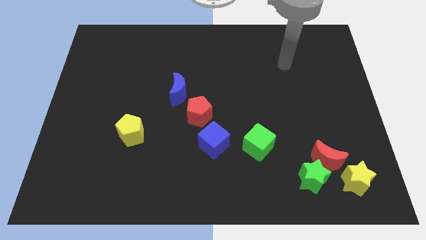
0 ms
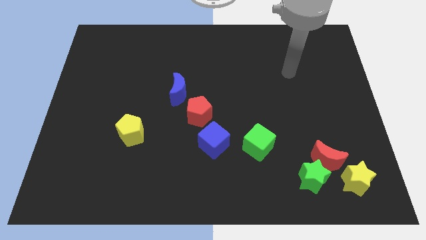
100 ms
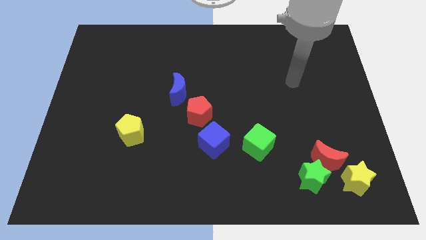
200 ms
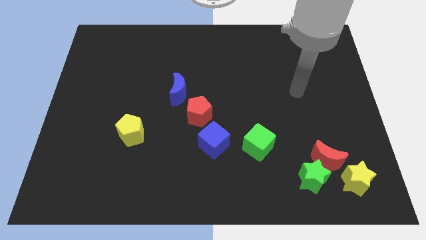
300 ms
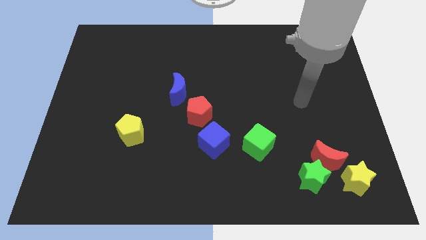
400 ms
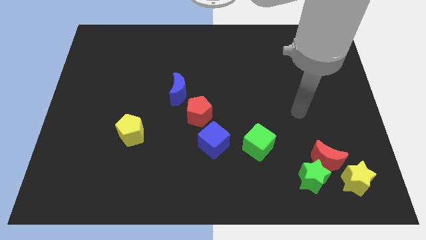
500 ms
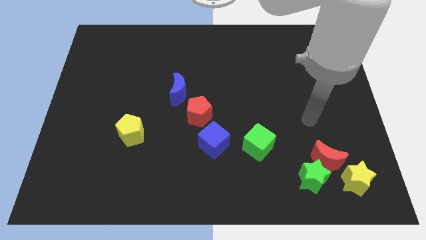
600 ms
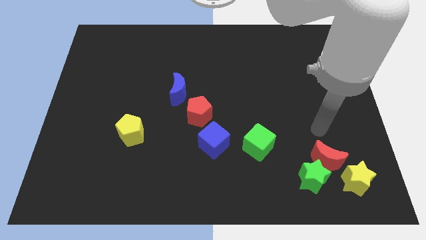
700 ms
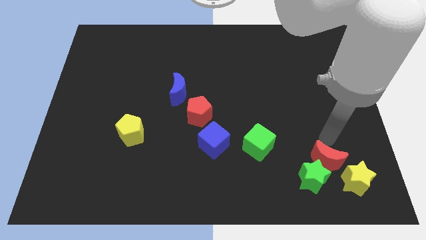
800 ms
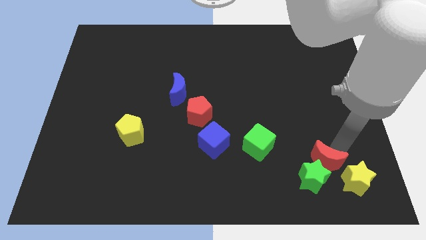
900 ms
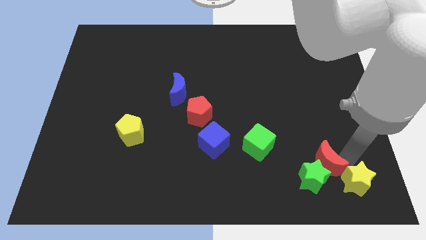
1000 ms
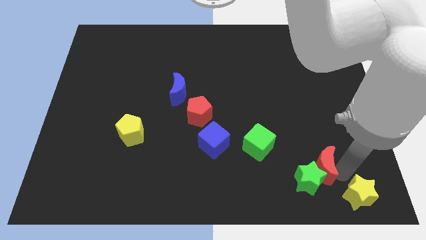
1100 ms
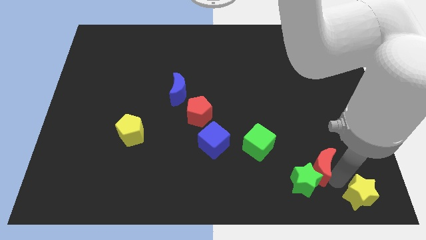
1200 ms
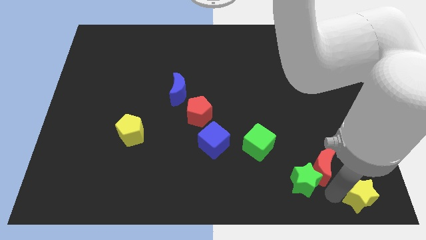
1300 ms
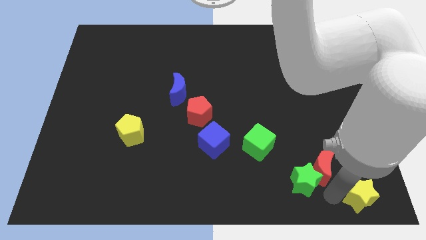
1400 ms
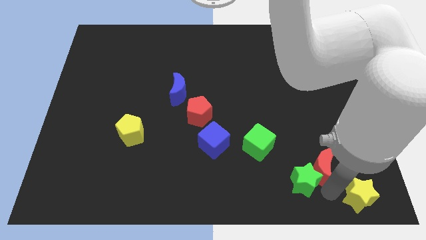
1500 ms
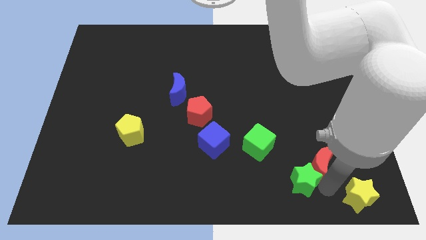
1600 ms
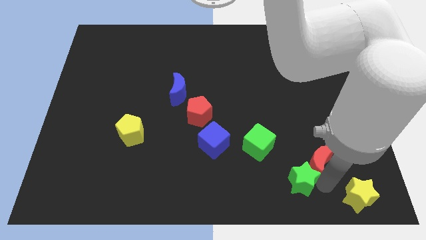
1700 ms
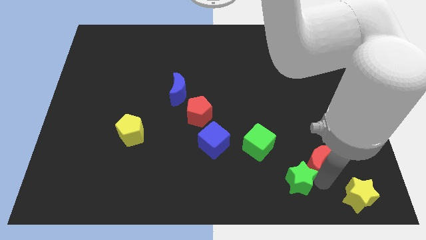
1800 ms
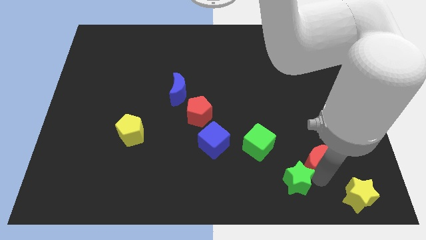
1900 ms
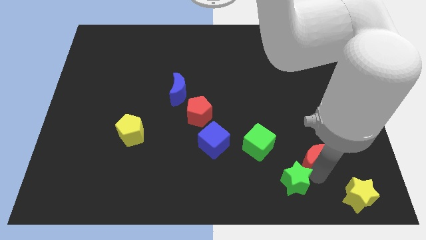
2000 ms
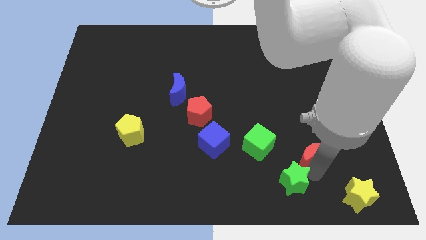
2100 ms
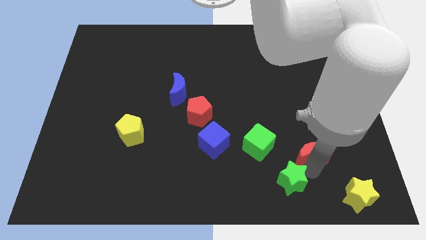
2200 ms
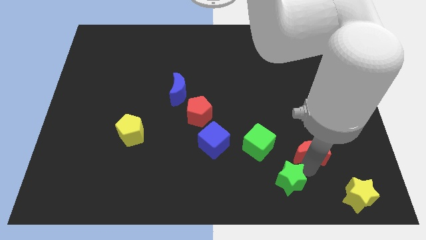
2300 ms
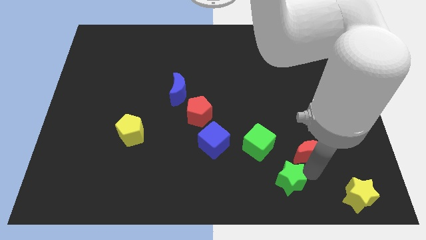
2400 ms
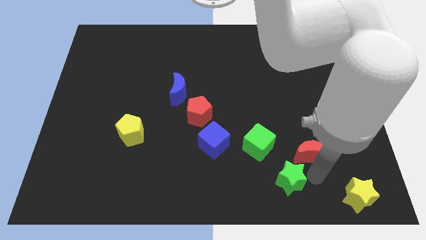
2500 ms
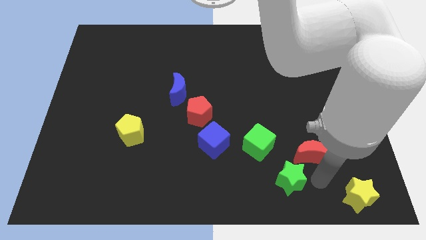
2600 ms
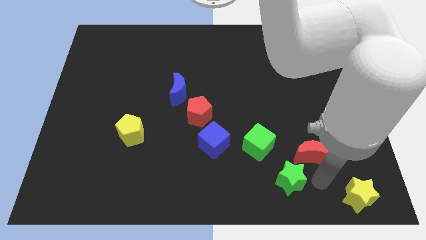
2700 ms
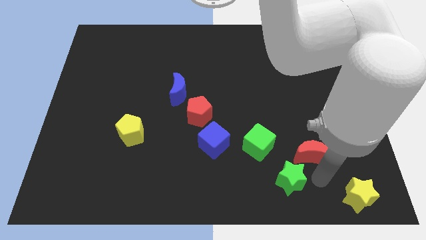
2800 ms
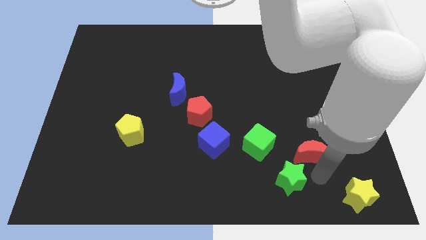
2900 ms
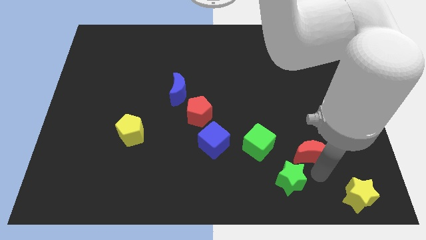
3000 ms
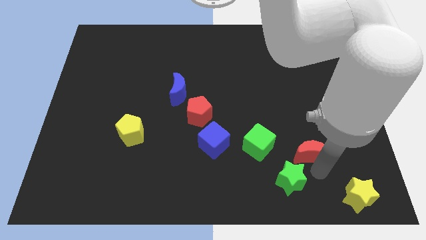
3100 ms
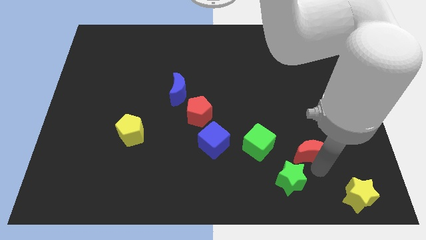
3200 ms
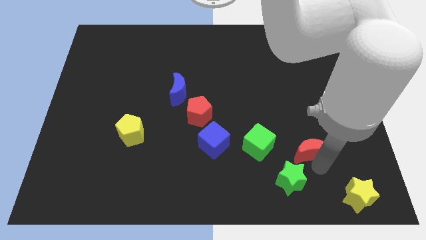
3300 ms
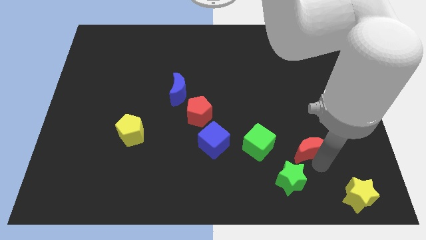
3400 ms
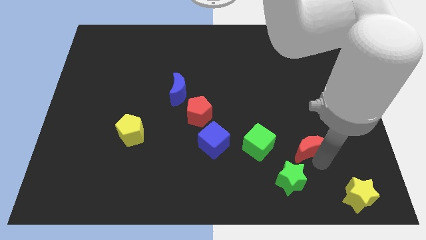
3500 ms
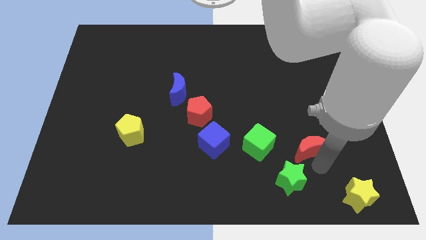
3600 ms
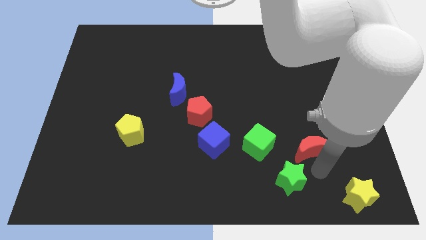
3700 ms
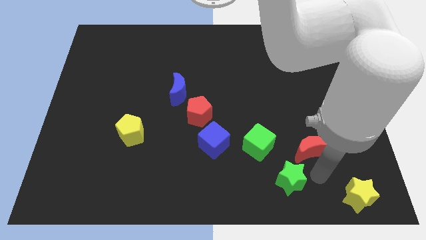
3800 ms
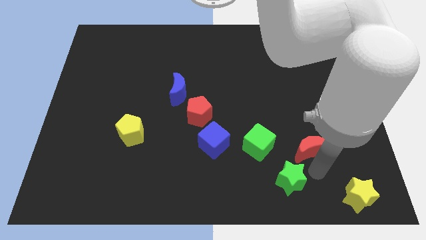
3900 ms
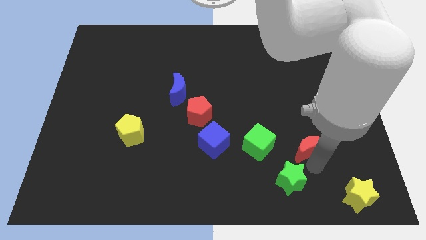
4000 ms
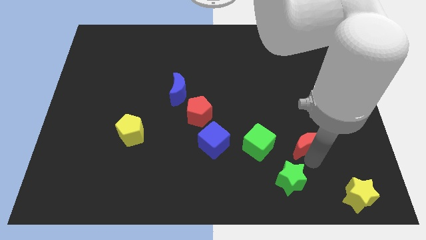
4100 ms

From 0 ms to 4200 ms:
separate the red moon from the green star and yellow star

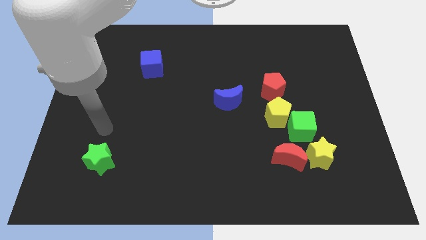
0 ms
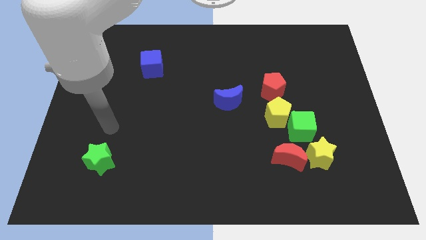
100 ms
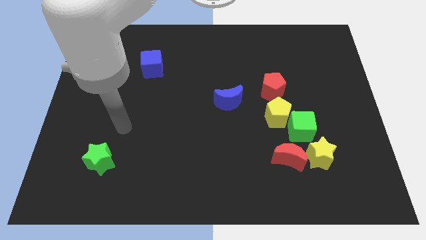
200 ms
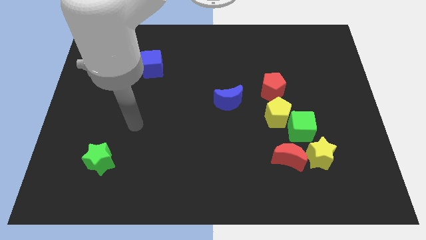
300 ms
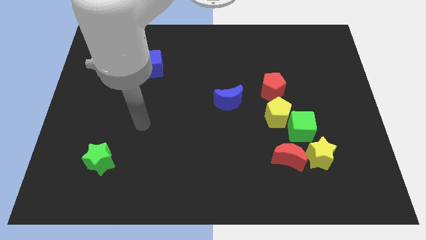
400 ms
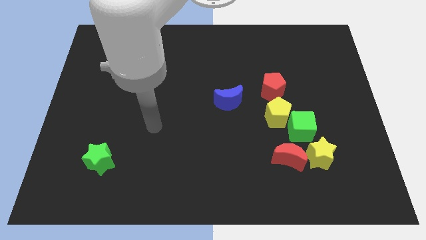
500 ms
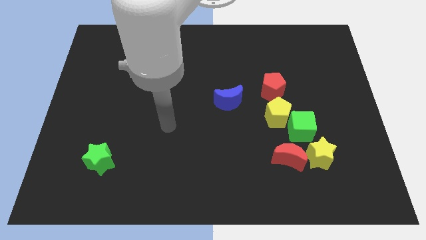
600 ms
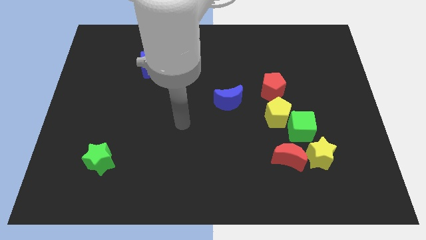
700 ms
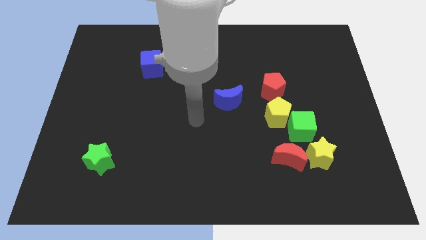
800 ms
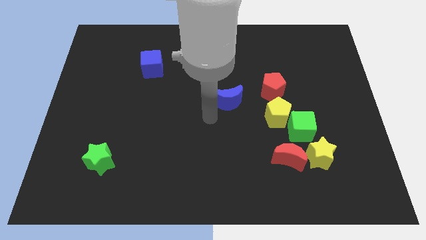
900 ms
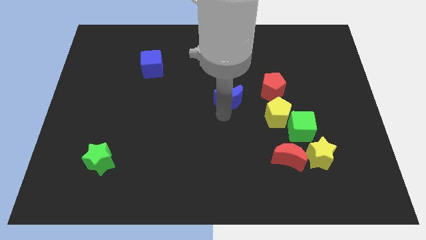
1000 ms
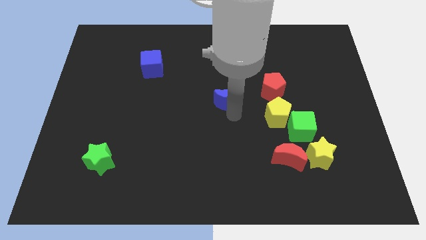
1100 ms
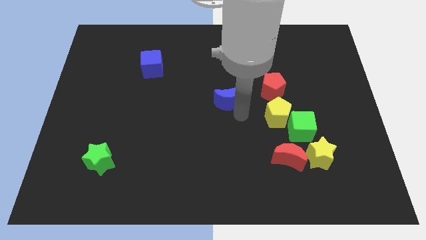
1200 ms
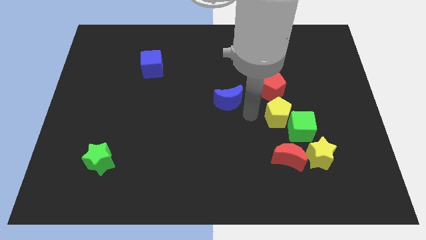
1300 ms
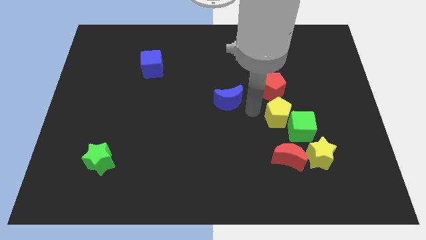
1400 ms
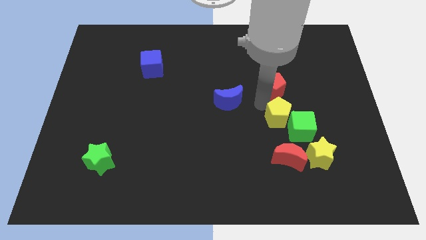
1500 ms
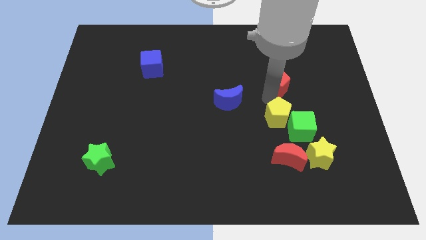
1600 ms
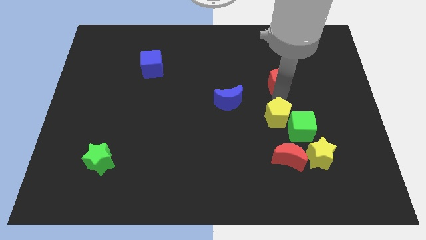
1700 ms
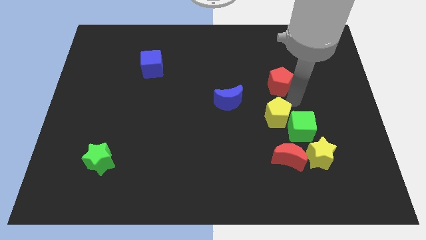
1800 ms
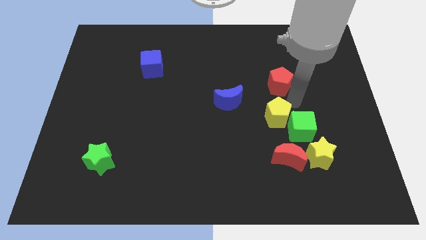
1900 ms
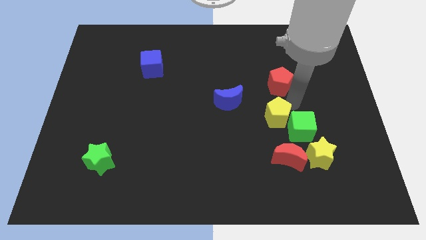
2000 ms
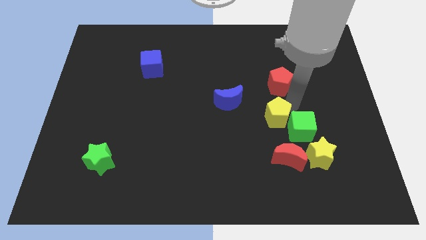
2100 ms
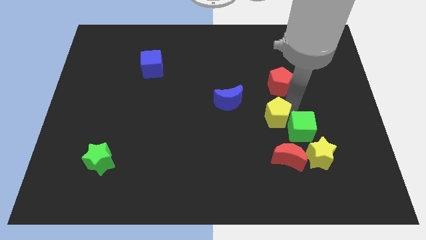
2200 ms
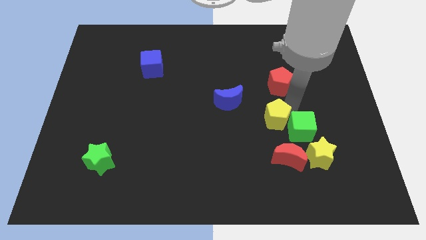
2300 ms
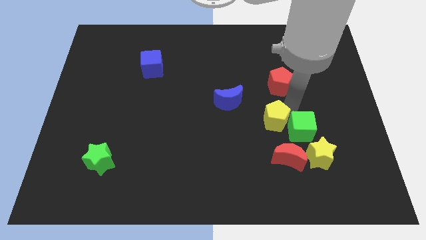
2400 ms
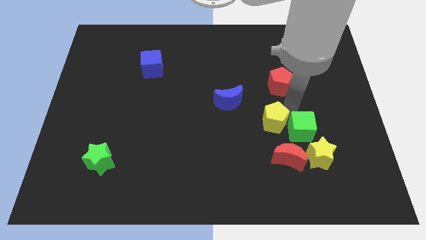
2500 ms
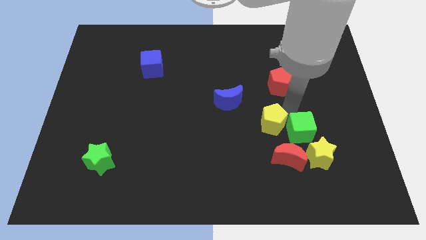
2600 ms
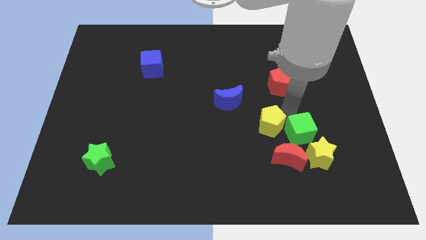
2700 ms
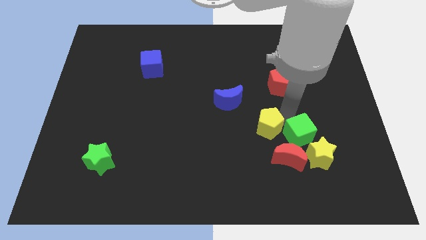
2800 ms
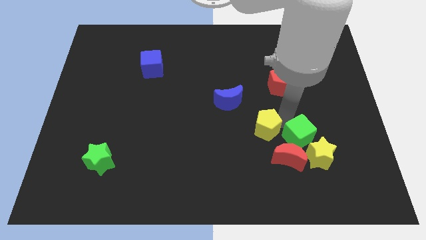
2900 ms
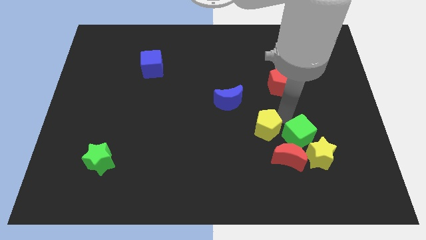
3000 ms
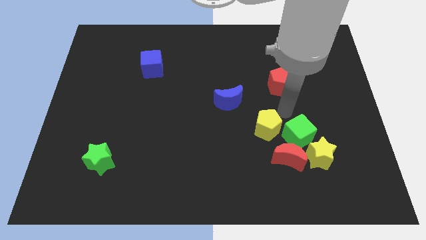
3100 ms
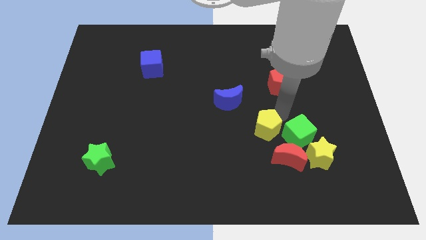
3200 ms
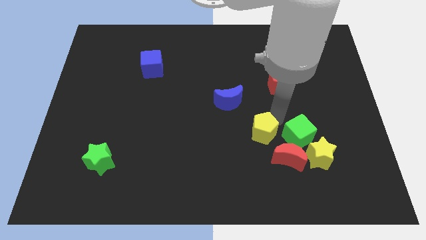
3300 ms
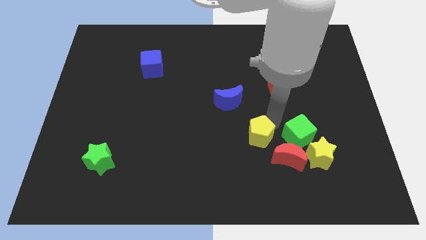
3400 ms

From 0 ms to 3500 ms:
pull the yellow pentagon apart from the green cube and red pentagon

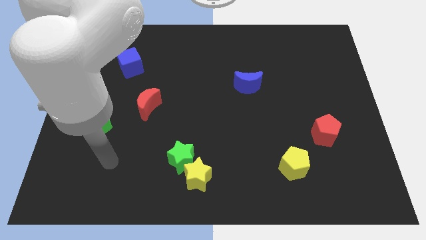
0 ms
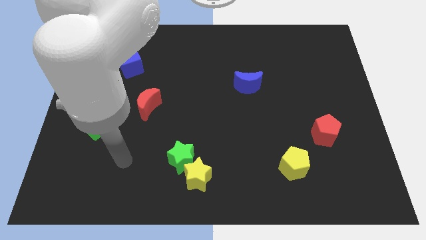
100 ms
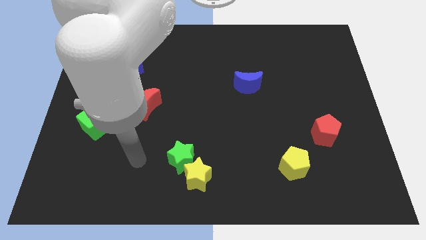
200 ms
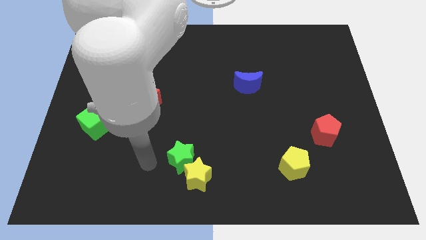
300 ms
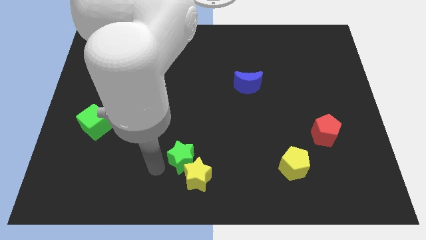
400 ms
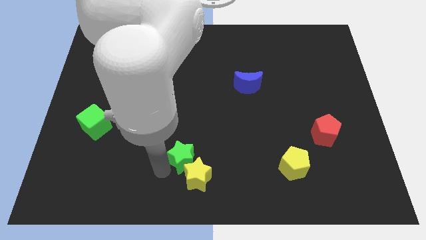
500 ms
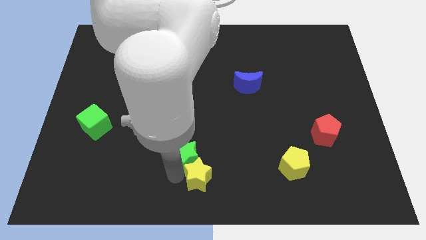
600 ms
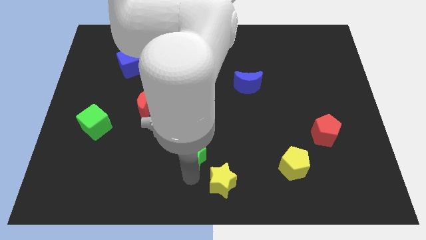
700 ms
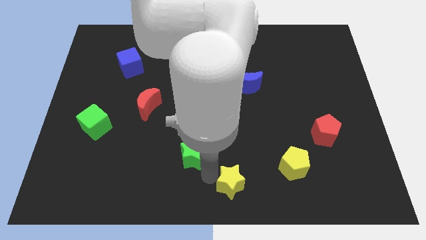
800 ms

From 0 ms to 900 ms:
separate the green star from the yellow star

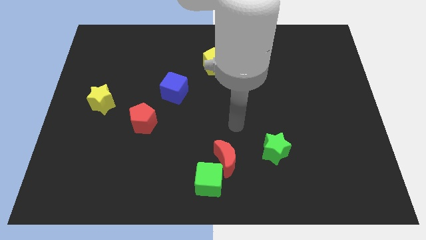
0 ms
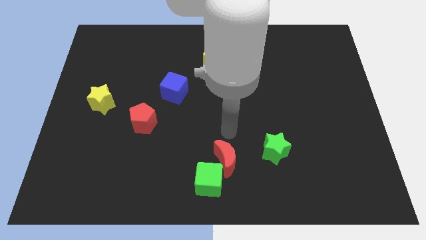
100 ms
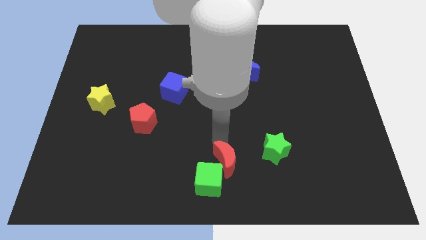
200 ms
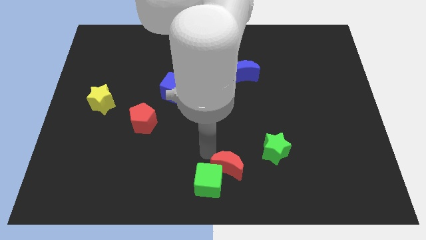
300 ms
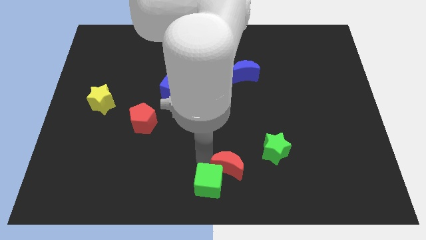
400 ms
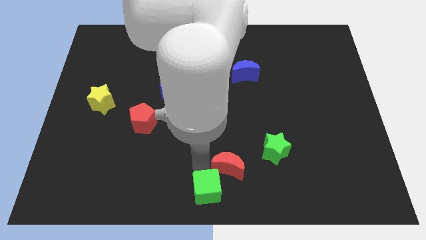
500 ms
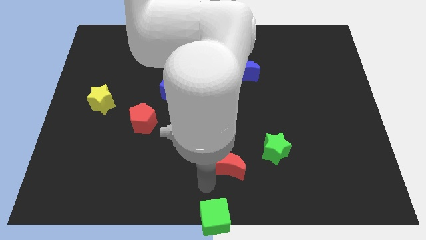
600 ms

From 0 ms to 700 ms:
pull the red moon apart from the green cube
